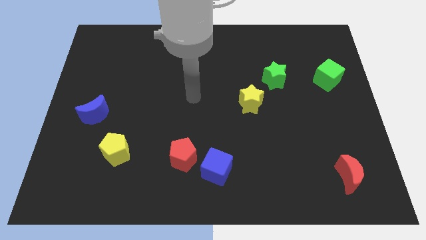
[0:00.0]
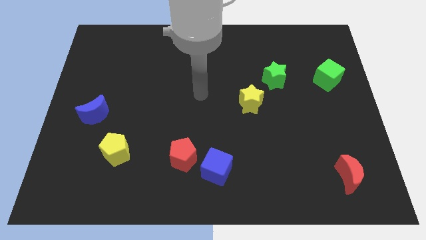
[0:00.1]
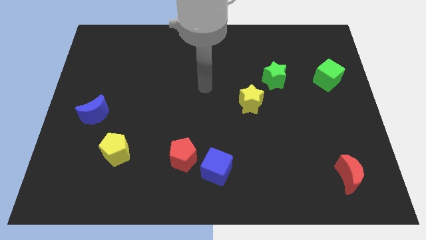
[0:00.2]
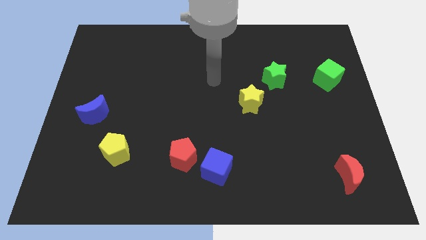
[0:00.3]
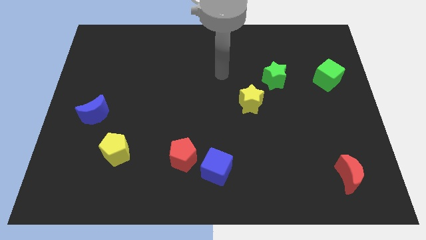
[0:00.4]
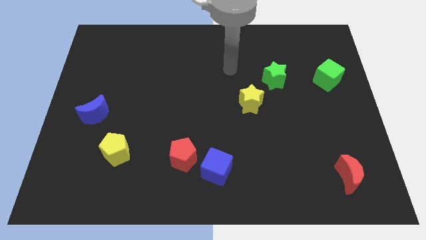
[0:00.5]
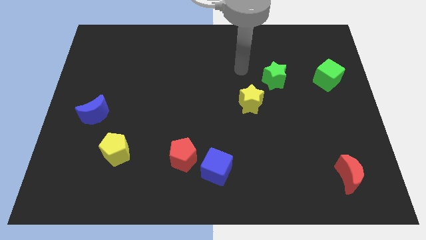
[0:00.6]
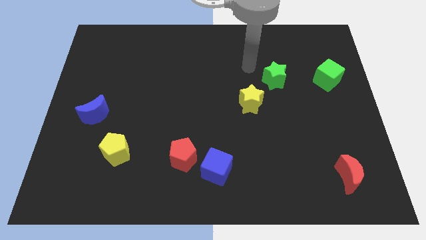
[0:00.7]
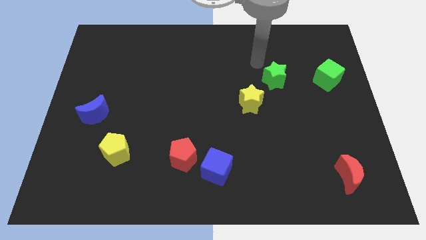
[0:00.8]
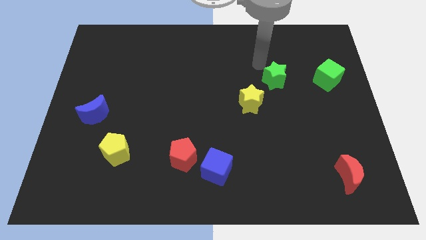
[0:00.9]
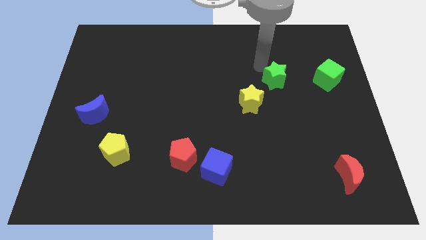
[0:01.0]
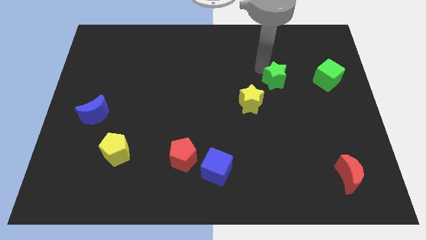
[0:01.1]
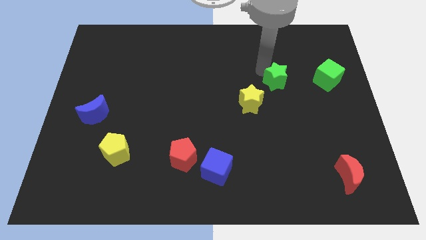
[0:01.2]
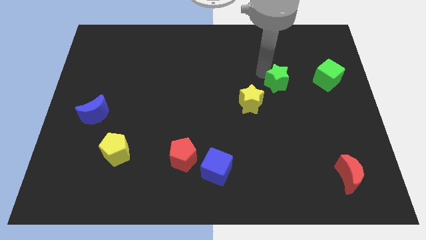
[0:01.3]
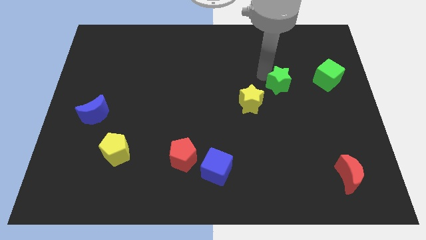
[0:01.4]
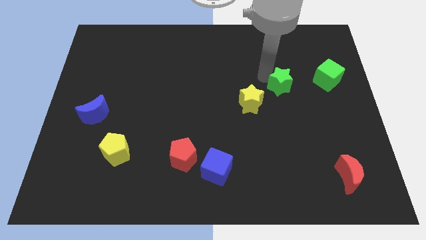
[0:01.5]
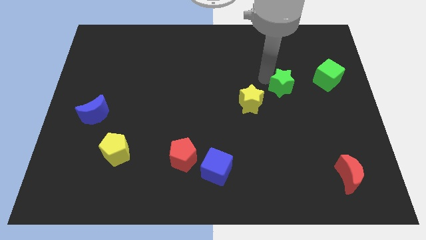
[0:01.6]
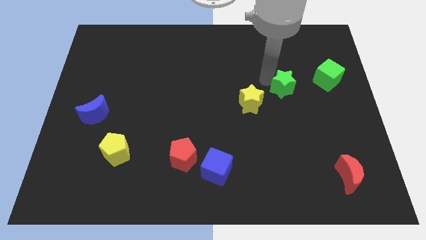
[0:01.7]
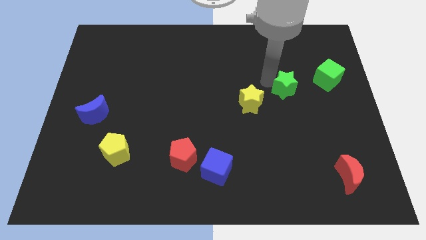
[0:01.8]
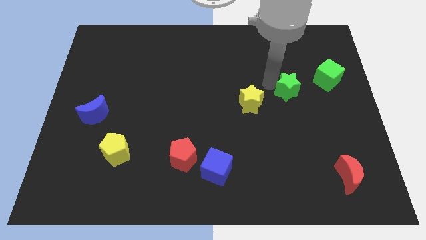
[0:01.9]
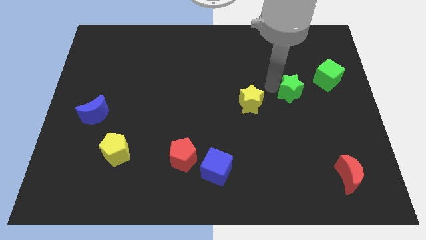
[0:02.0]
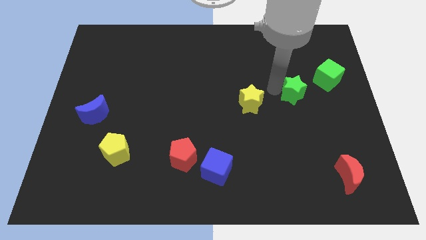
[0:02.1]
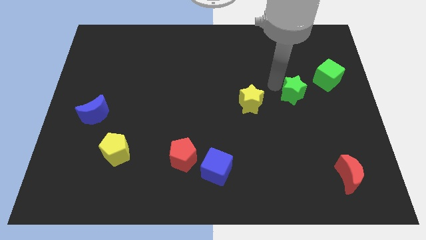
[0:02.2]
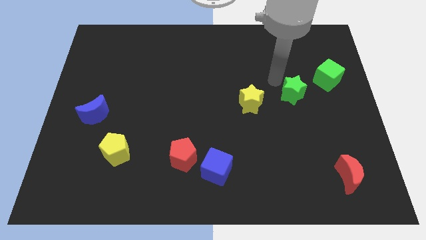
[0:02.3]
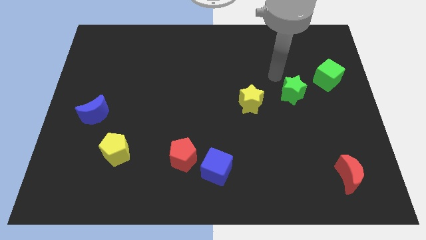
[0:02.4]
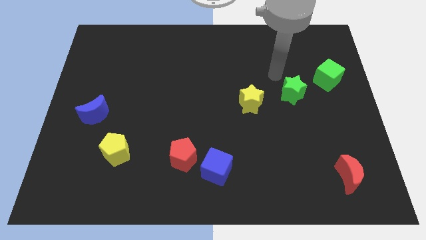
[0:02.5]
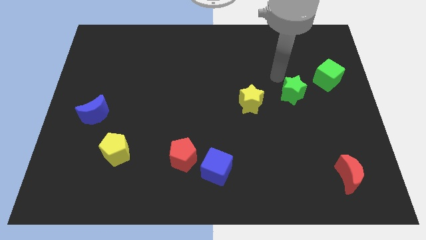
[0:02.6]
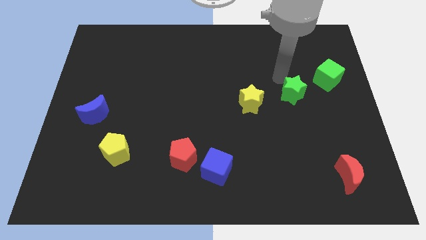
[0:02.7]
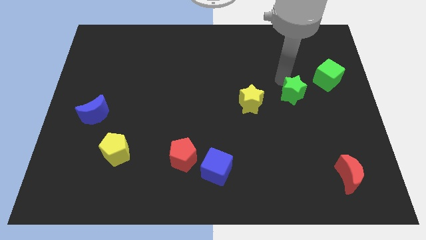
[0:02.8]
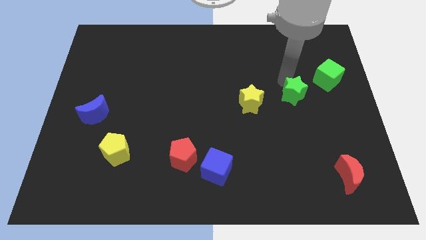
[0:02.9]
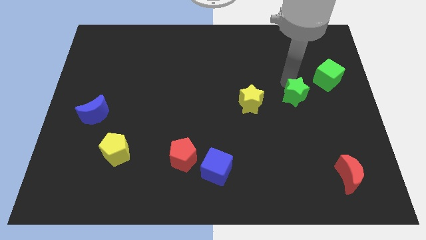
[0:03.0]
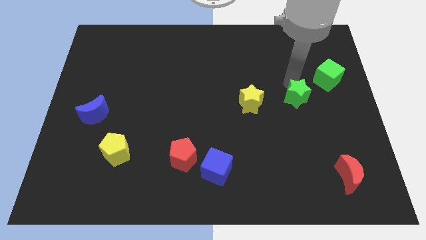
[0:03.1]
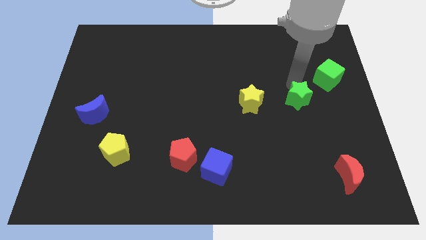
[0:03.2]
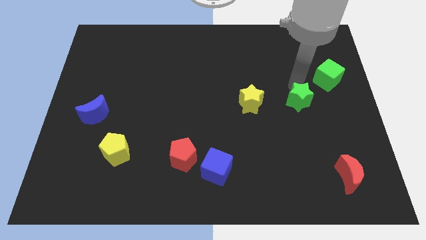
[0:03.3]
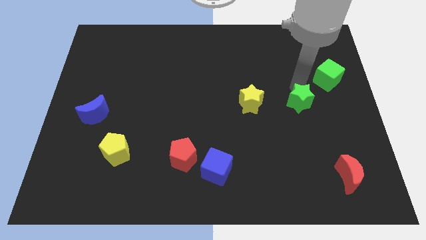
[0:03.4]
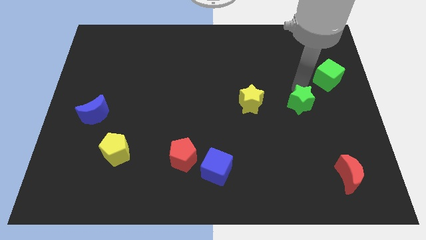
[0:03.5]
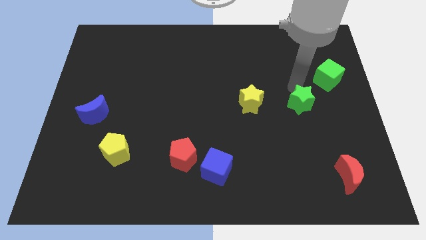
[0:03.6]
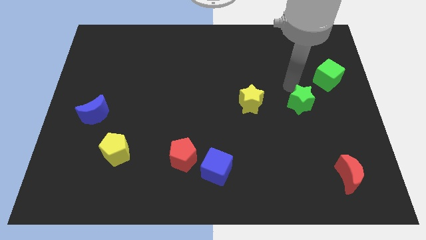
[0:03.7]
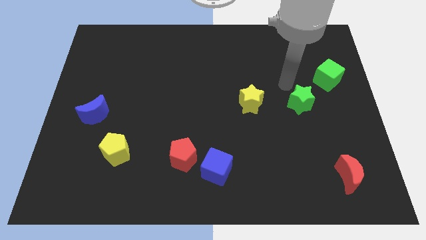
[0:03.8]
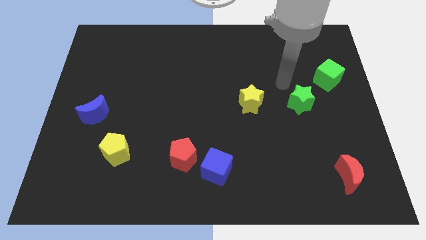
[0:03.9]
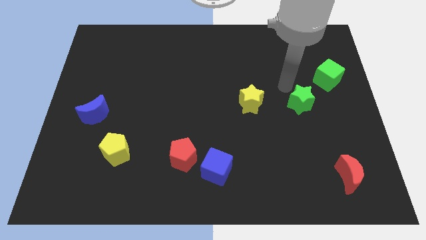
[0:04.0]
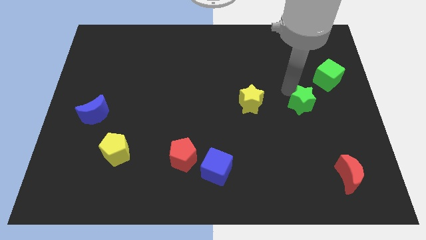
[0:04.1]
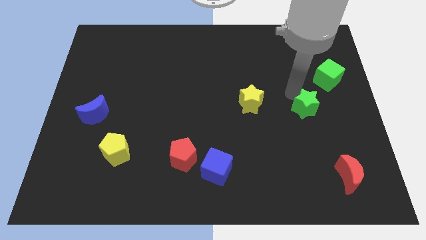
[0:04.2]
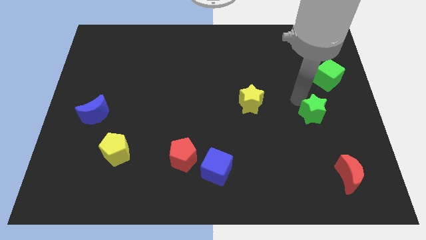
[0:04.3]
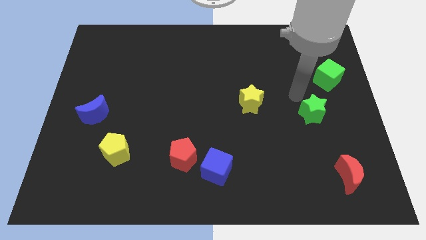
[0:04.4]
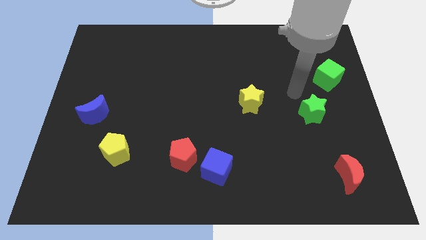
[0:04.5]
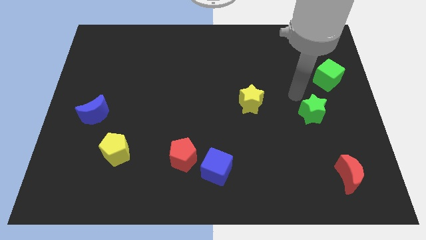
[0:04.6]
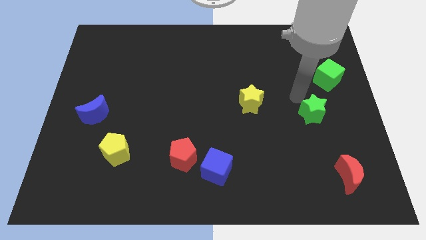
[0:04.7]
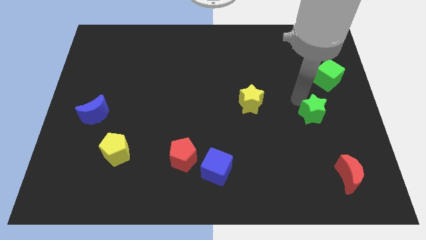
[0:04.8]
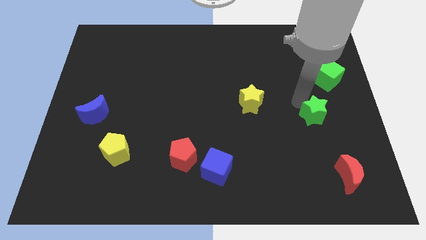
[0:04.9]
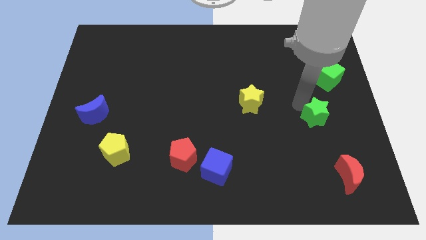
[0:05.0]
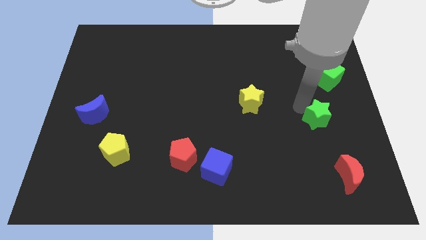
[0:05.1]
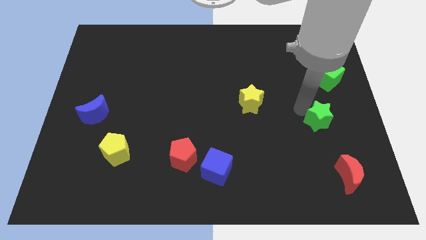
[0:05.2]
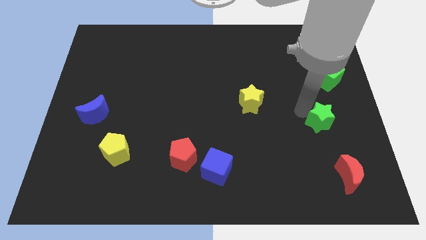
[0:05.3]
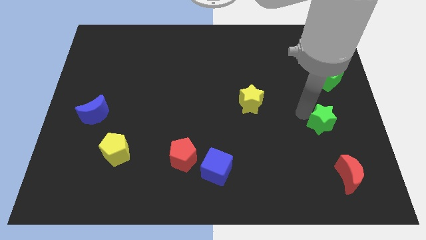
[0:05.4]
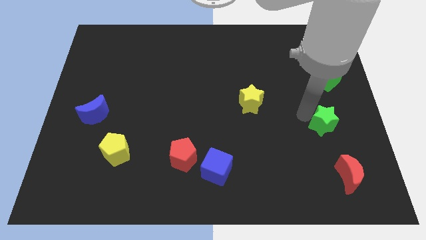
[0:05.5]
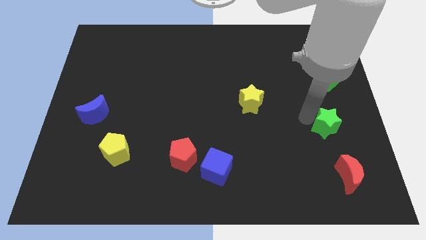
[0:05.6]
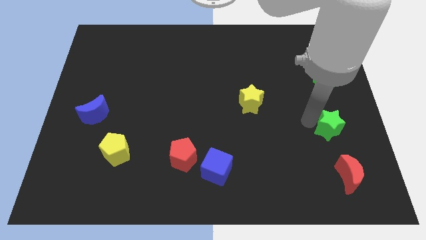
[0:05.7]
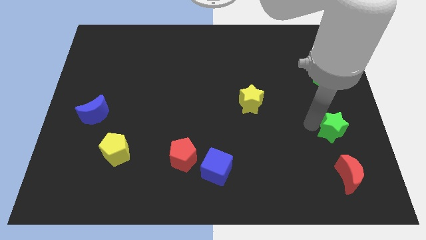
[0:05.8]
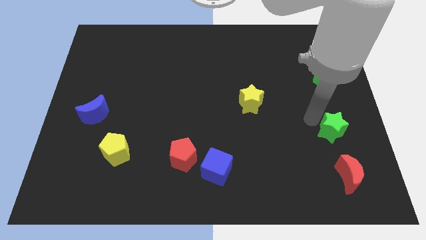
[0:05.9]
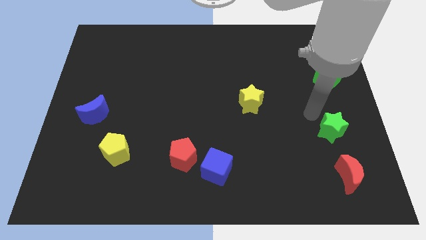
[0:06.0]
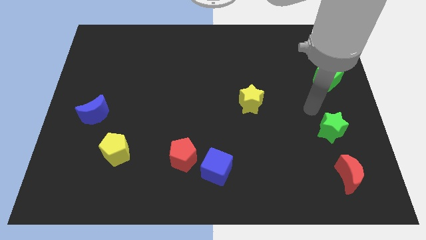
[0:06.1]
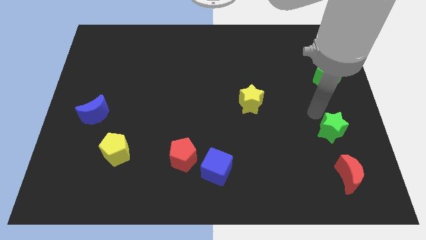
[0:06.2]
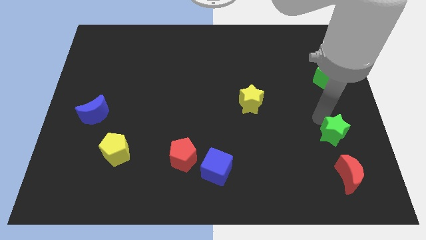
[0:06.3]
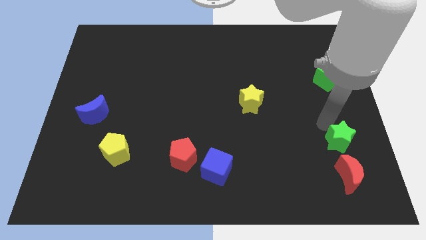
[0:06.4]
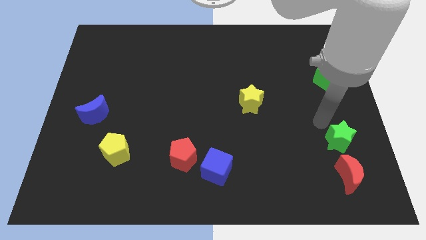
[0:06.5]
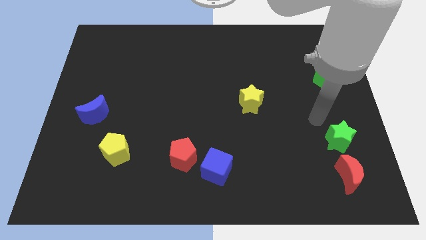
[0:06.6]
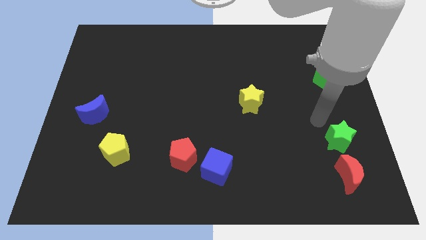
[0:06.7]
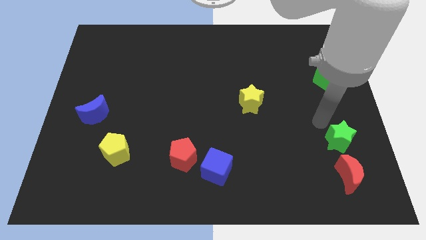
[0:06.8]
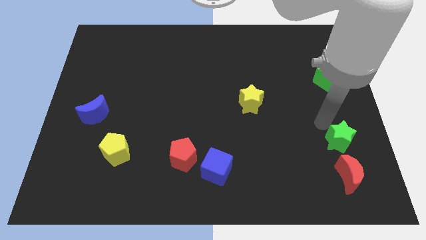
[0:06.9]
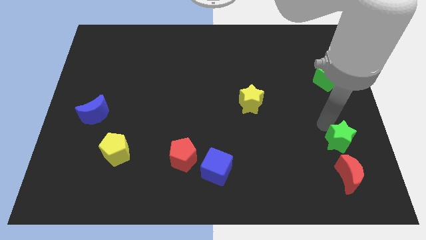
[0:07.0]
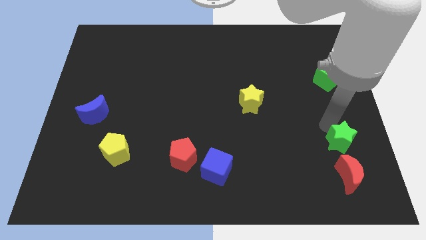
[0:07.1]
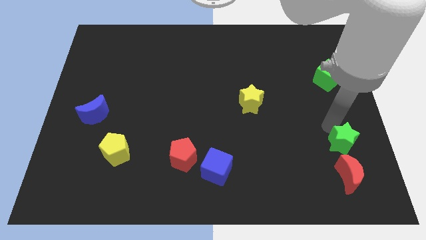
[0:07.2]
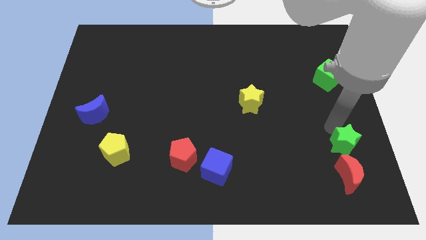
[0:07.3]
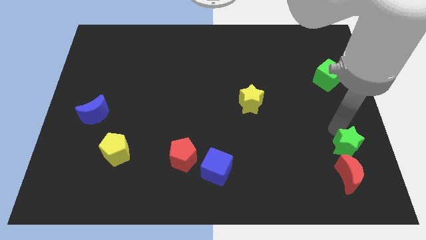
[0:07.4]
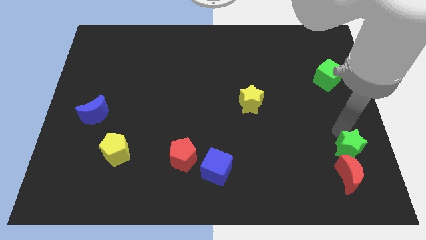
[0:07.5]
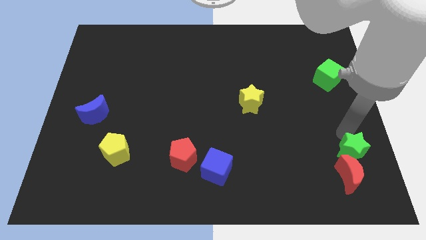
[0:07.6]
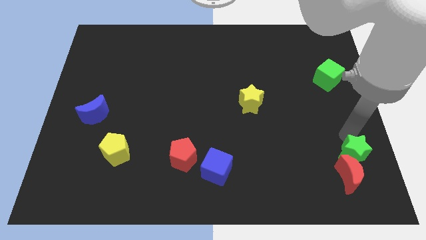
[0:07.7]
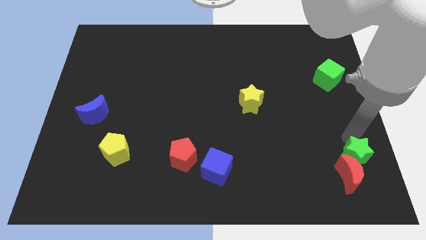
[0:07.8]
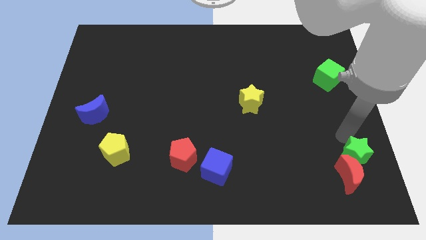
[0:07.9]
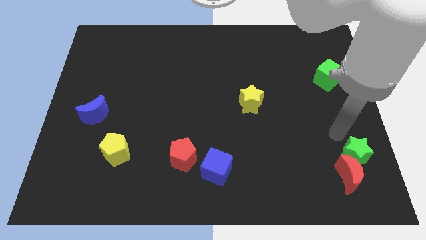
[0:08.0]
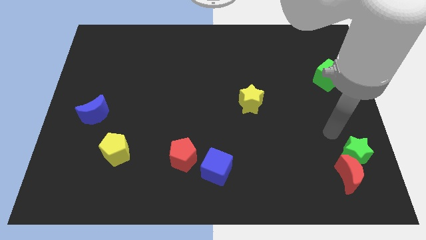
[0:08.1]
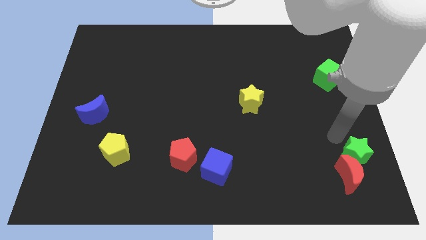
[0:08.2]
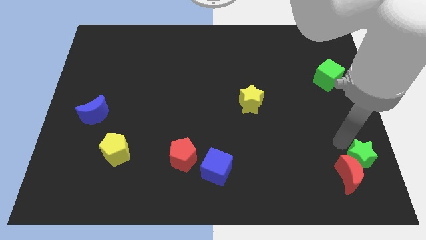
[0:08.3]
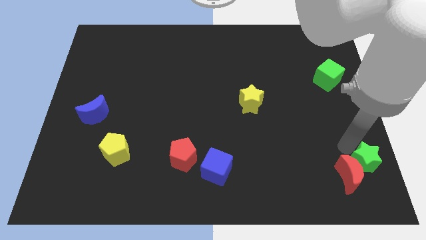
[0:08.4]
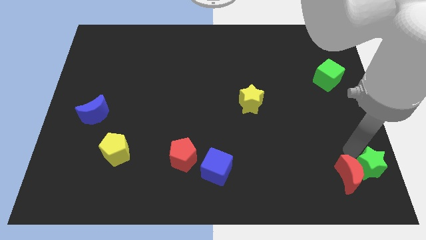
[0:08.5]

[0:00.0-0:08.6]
slide the green star to the bottom right of the board
